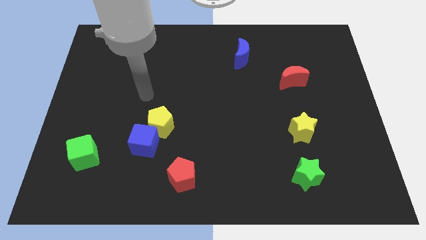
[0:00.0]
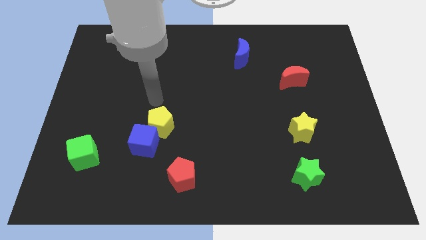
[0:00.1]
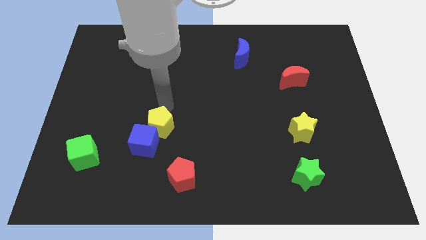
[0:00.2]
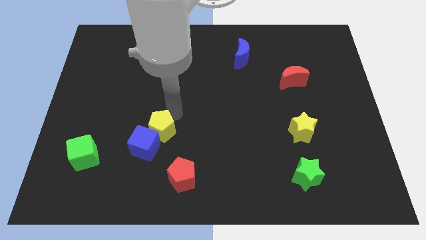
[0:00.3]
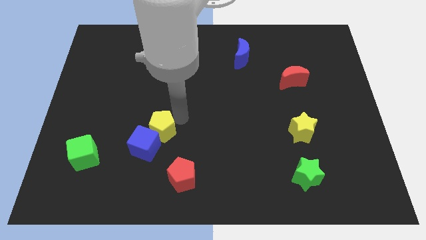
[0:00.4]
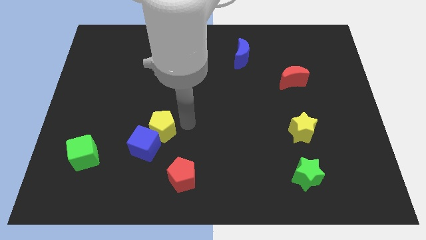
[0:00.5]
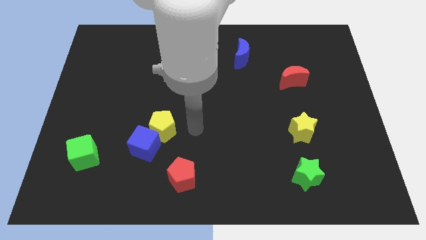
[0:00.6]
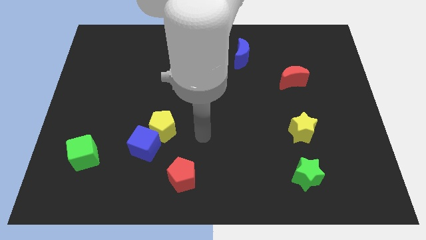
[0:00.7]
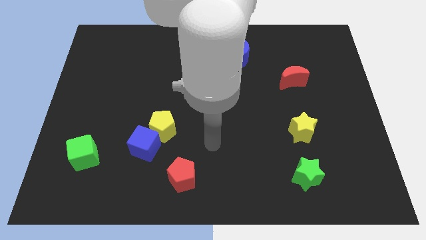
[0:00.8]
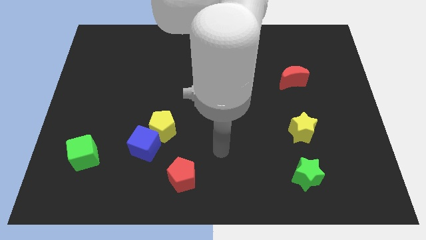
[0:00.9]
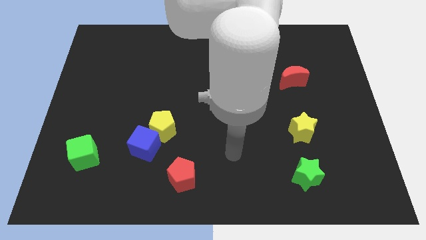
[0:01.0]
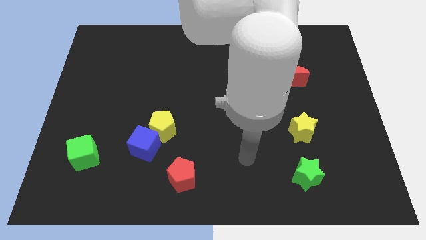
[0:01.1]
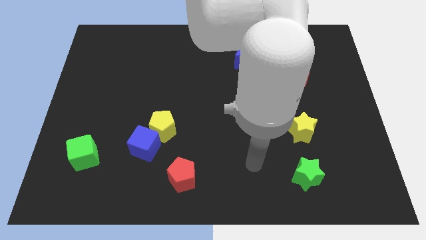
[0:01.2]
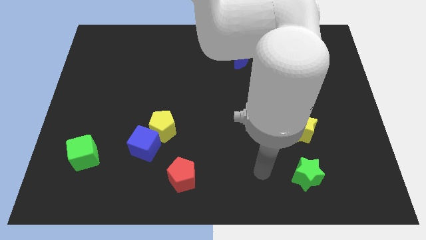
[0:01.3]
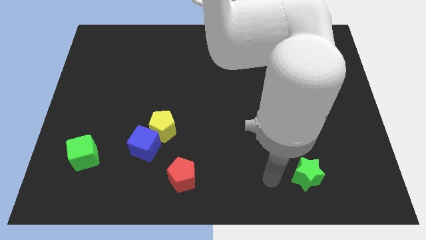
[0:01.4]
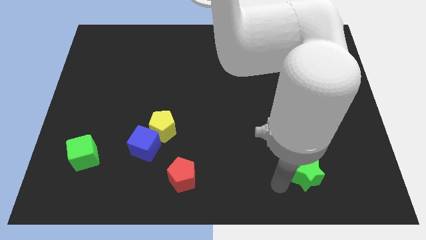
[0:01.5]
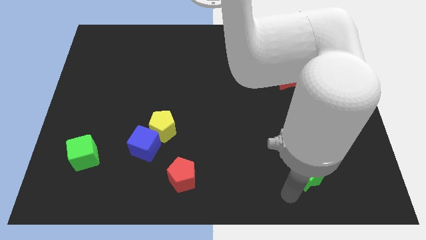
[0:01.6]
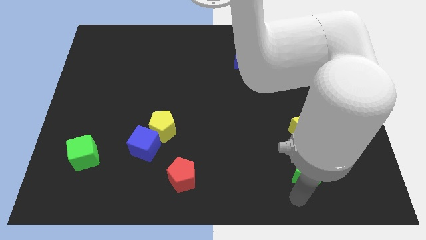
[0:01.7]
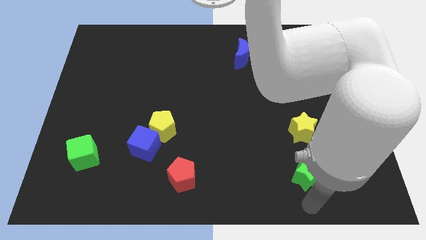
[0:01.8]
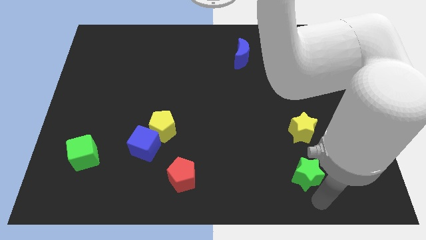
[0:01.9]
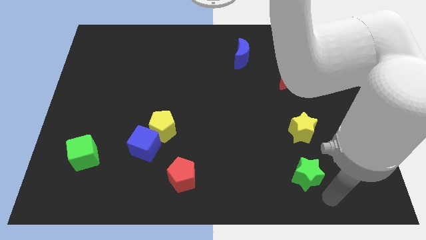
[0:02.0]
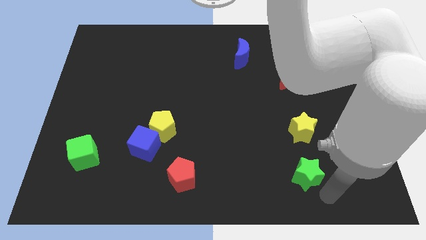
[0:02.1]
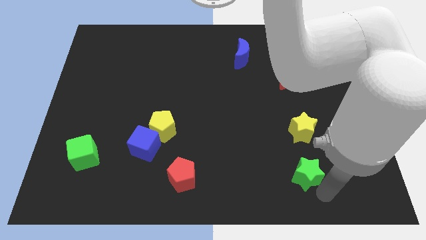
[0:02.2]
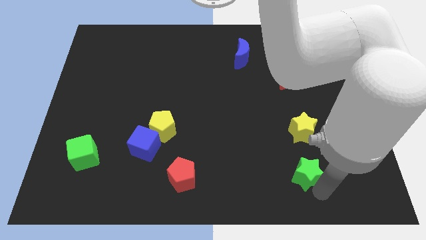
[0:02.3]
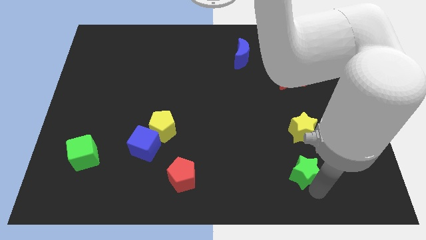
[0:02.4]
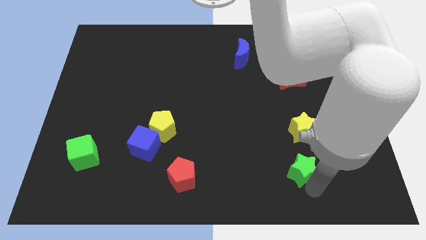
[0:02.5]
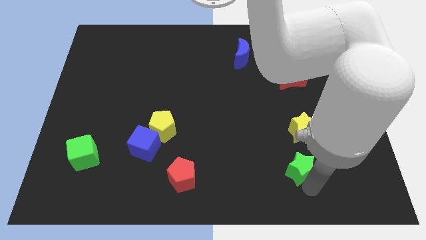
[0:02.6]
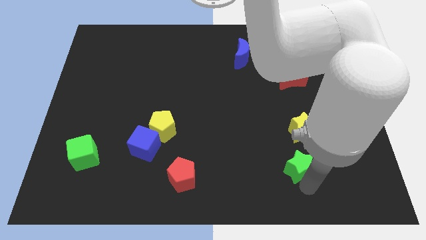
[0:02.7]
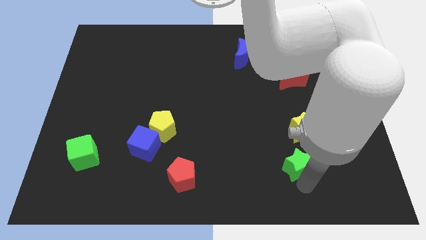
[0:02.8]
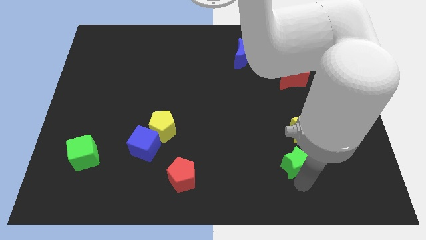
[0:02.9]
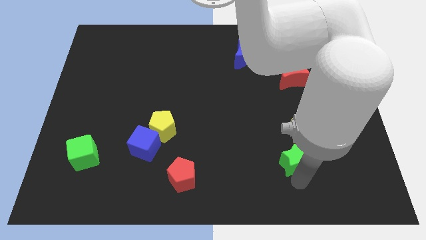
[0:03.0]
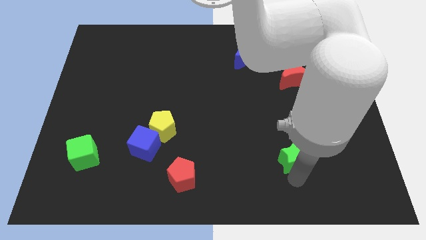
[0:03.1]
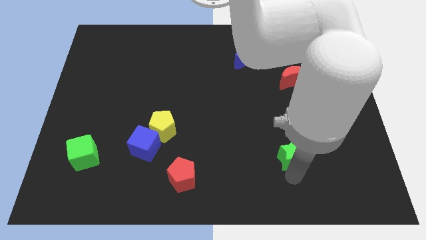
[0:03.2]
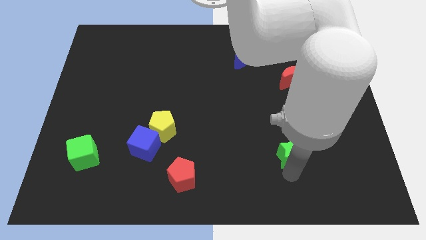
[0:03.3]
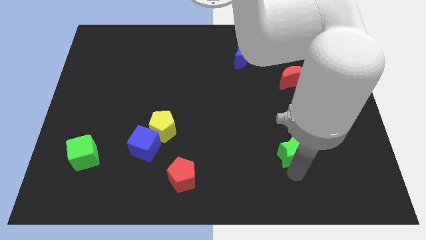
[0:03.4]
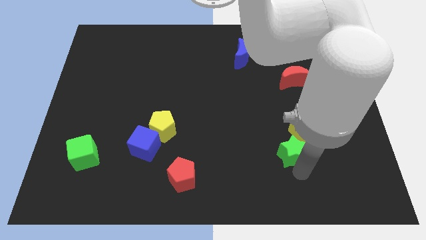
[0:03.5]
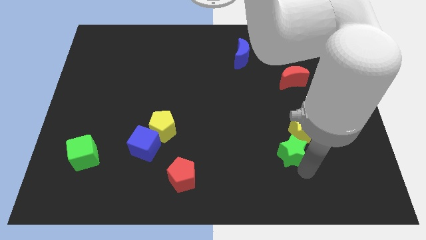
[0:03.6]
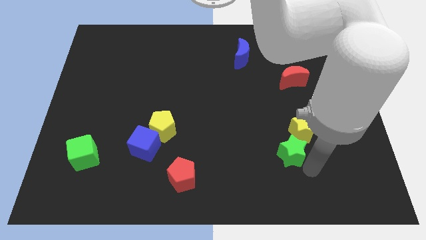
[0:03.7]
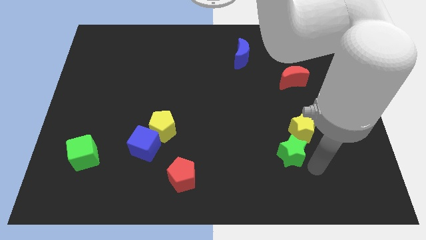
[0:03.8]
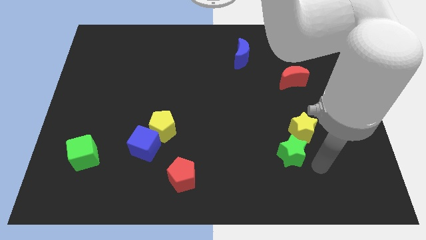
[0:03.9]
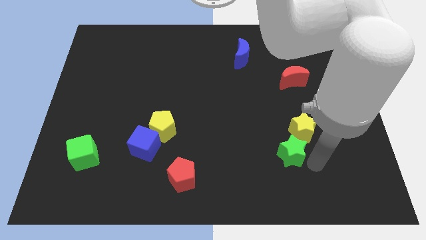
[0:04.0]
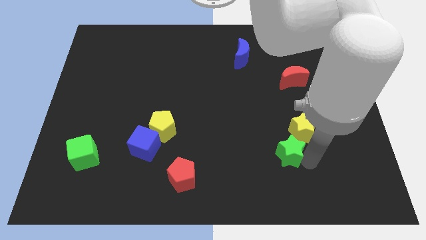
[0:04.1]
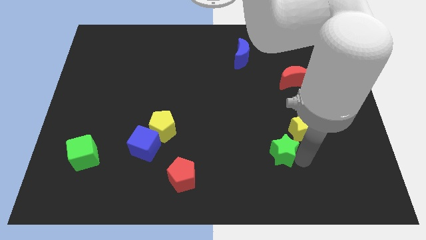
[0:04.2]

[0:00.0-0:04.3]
slightly push the green star upwards and to the left

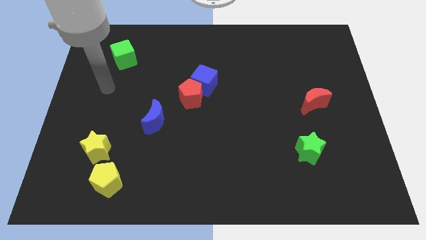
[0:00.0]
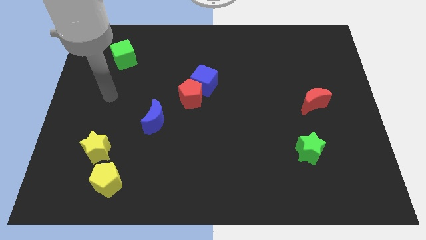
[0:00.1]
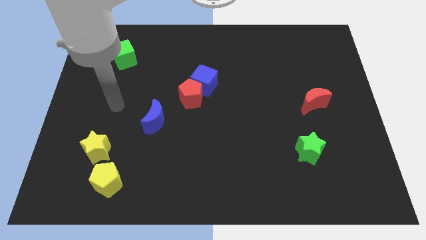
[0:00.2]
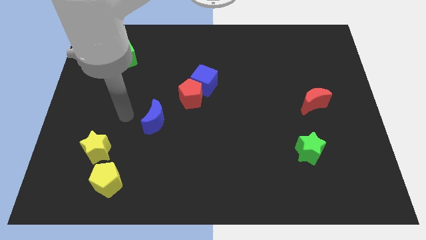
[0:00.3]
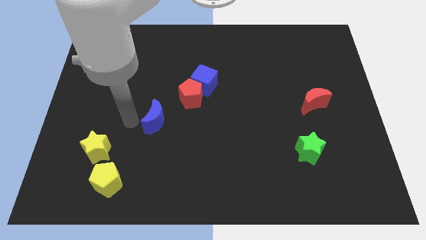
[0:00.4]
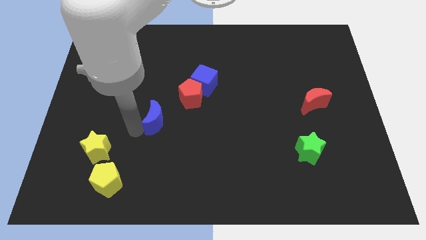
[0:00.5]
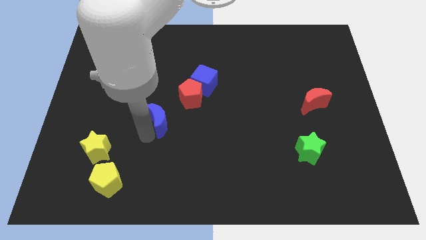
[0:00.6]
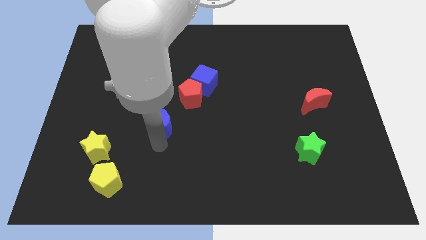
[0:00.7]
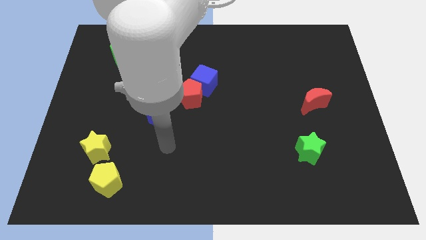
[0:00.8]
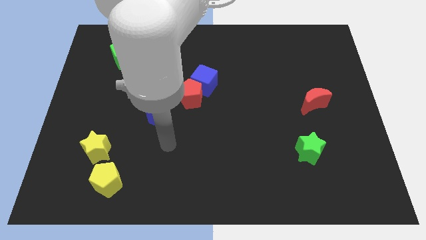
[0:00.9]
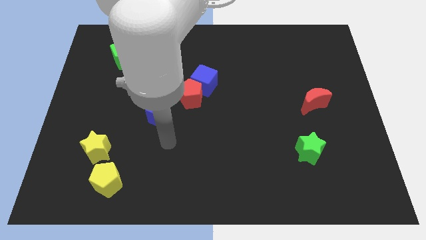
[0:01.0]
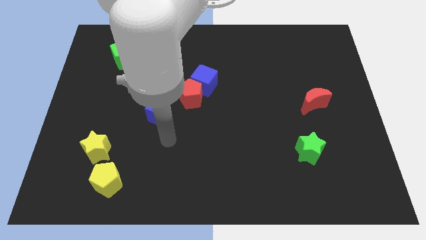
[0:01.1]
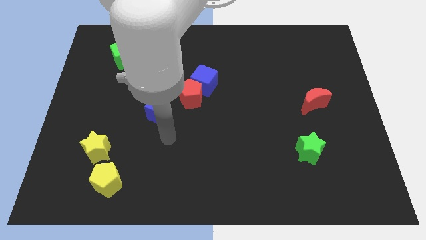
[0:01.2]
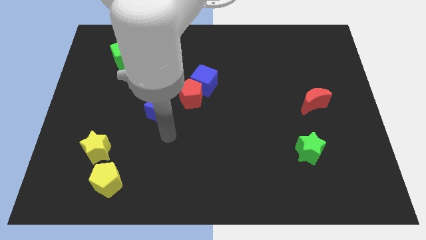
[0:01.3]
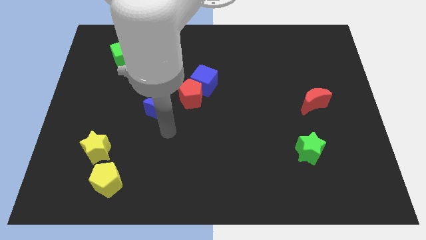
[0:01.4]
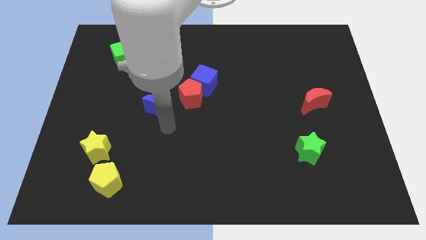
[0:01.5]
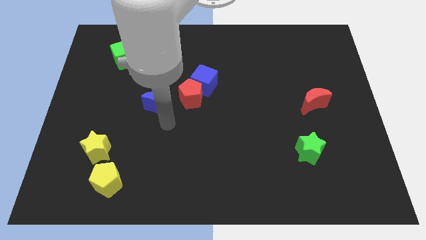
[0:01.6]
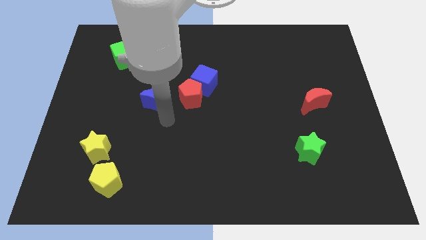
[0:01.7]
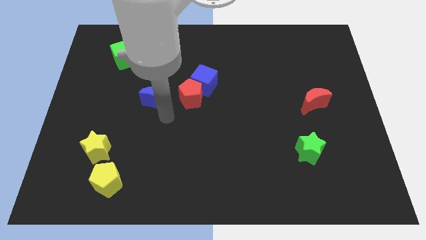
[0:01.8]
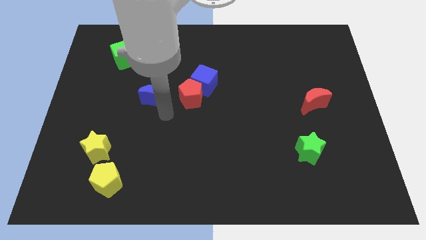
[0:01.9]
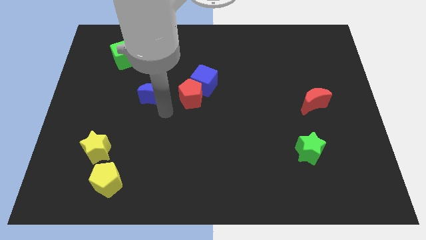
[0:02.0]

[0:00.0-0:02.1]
move the blue moon slightly up

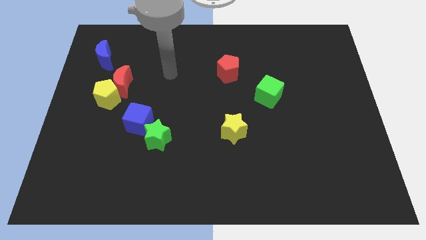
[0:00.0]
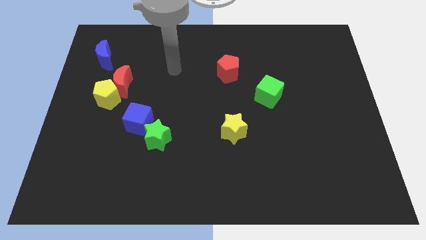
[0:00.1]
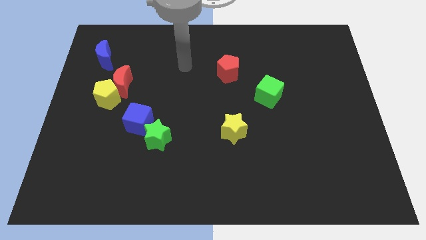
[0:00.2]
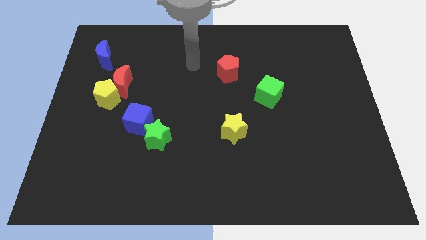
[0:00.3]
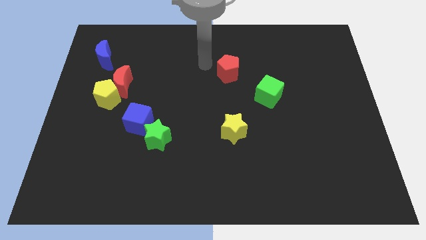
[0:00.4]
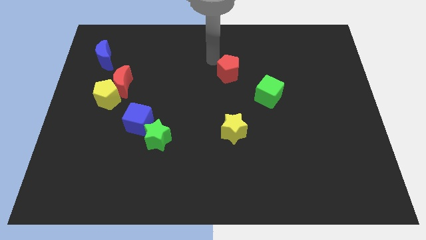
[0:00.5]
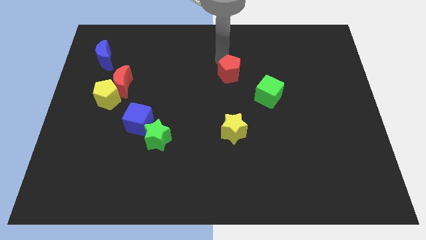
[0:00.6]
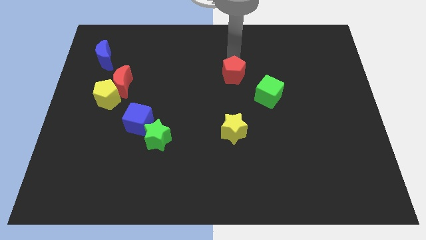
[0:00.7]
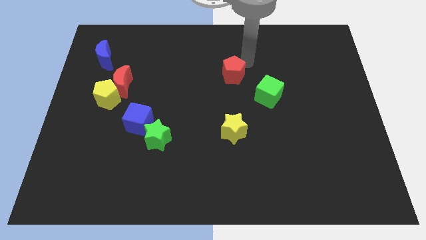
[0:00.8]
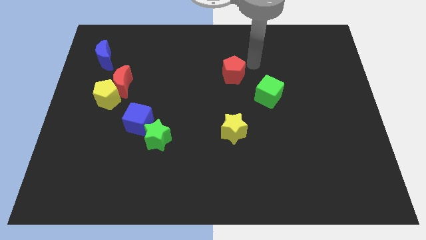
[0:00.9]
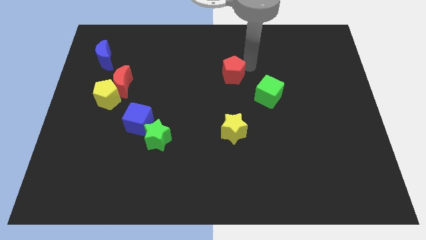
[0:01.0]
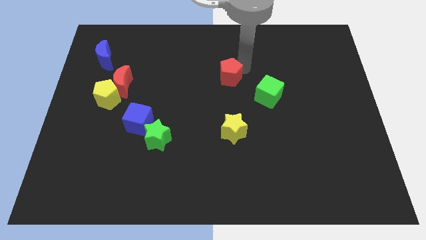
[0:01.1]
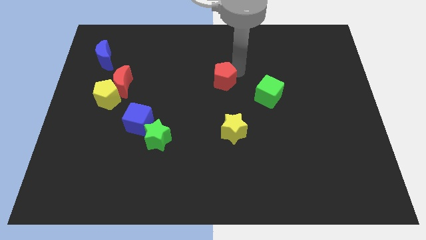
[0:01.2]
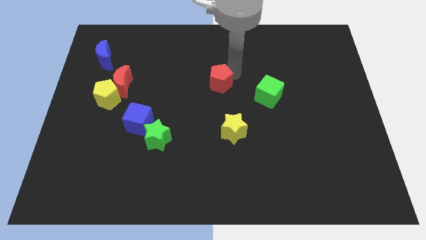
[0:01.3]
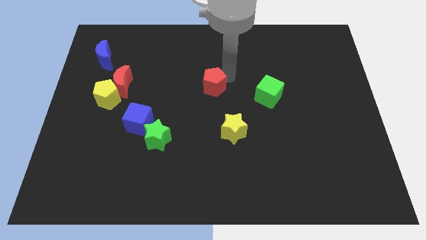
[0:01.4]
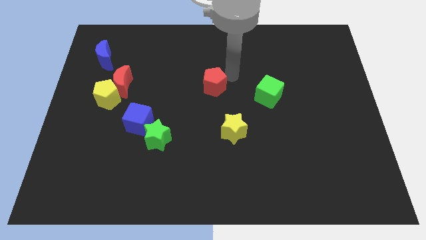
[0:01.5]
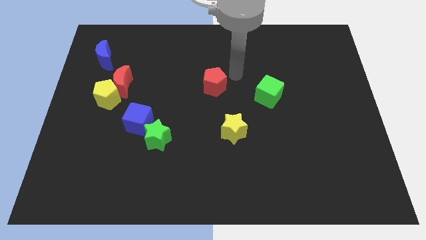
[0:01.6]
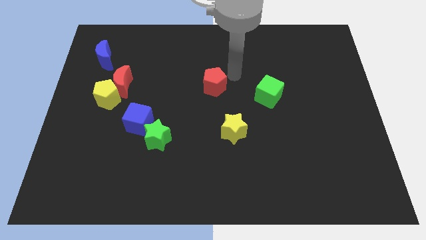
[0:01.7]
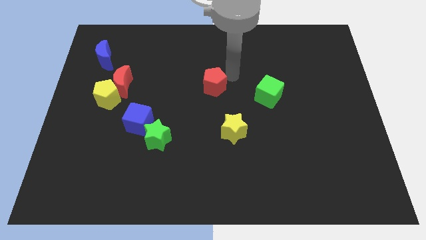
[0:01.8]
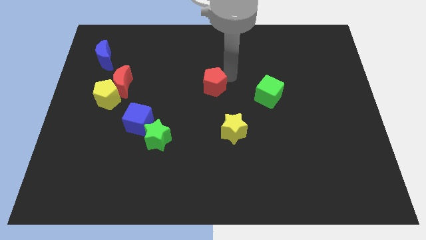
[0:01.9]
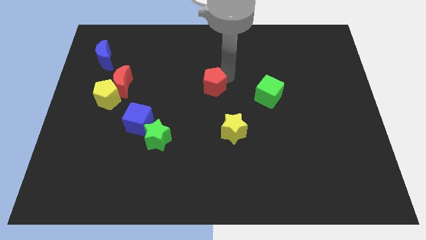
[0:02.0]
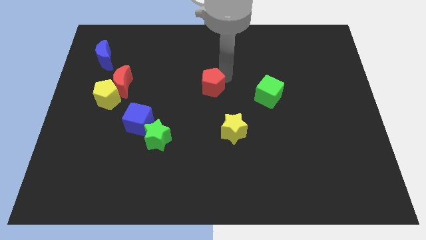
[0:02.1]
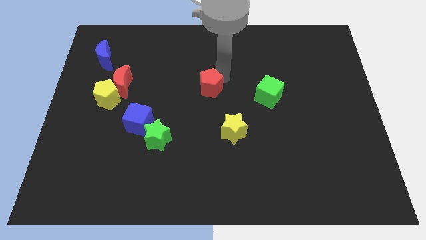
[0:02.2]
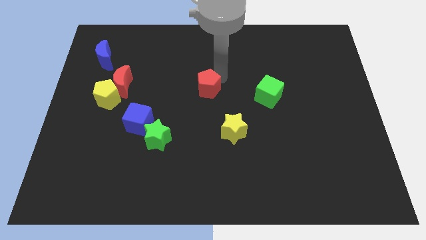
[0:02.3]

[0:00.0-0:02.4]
slide the red pentagon diagonally down and to the left a little bit
